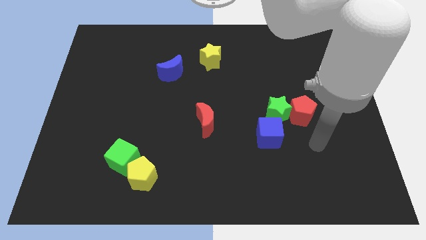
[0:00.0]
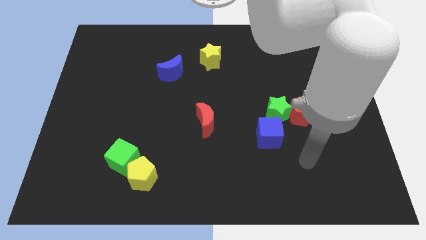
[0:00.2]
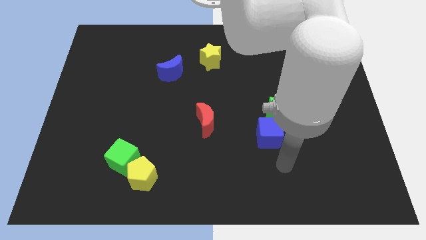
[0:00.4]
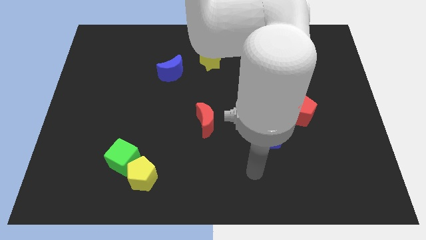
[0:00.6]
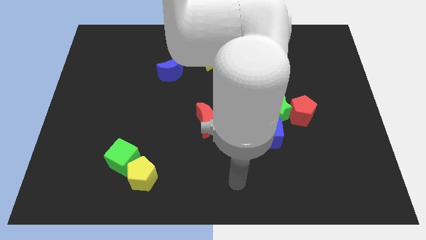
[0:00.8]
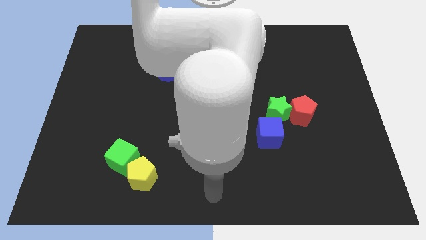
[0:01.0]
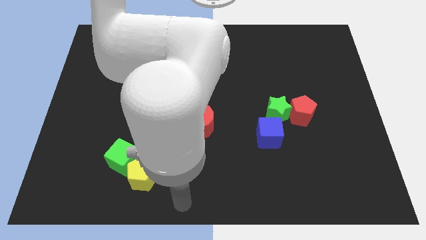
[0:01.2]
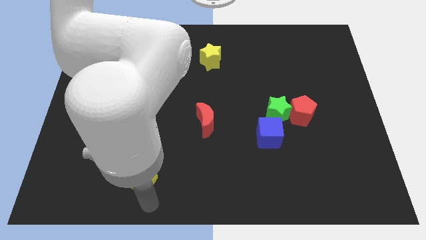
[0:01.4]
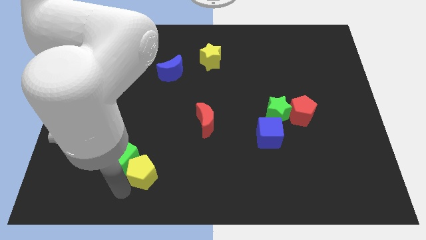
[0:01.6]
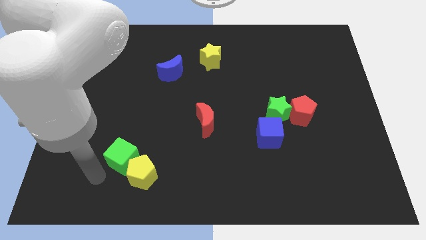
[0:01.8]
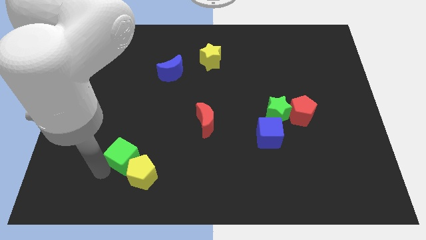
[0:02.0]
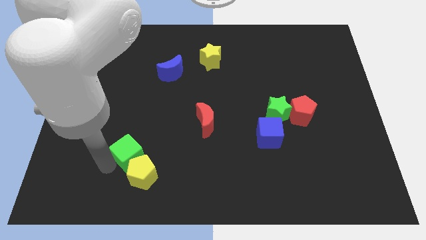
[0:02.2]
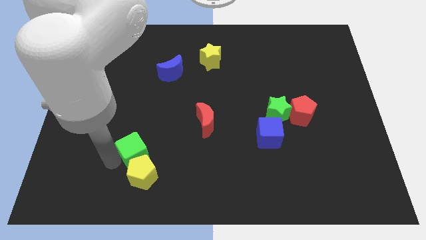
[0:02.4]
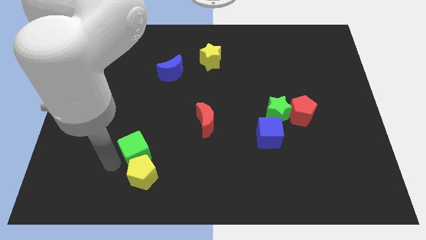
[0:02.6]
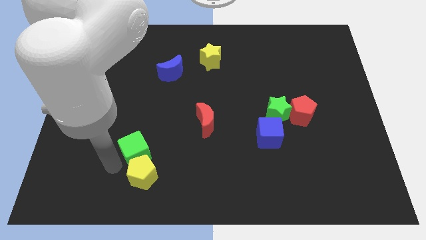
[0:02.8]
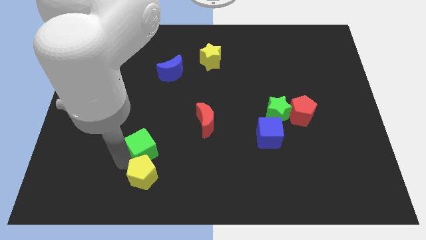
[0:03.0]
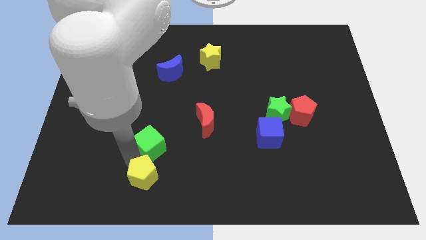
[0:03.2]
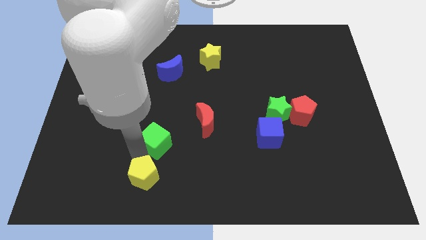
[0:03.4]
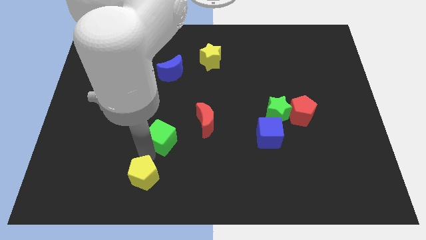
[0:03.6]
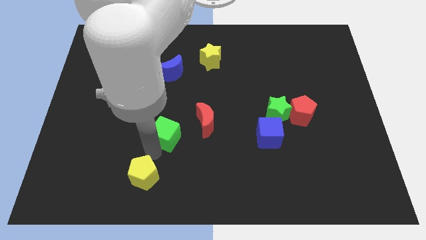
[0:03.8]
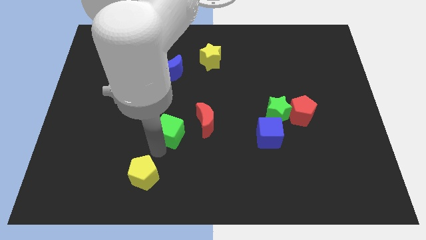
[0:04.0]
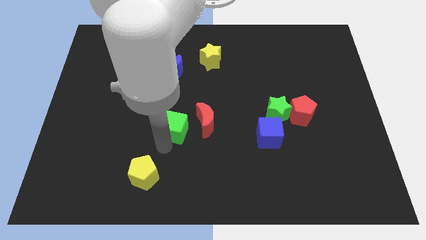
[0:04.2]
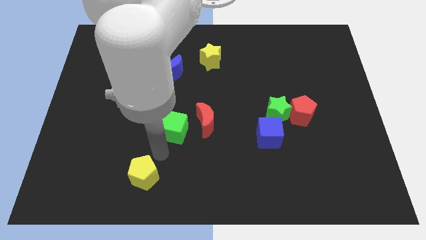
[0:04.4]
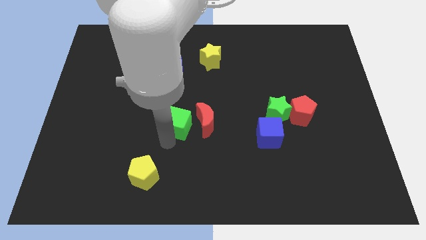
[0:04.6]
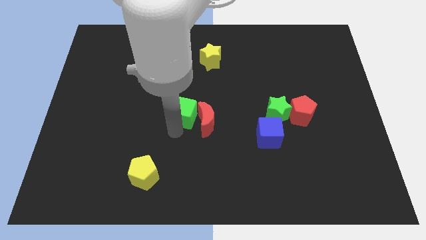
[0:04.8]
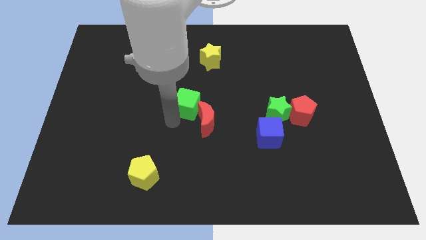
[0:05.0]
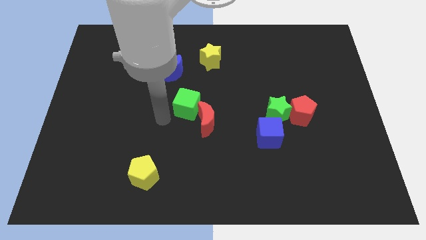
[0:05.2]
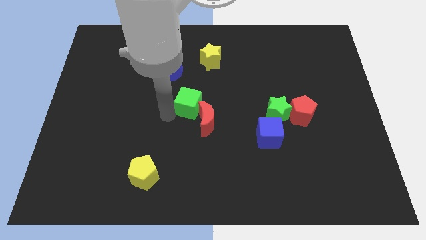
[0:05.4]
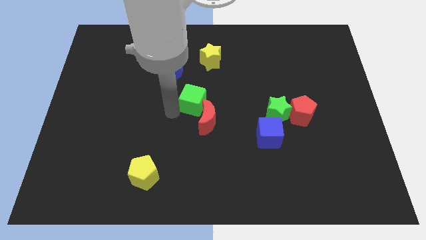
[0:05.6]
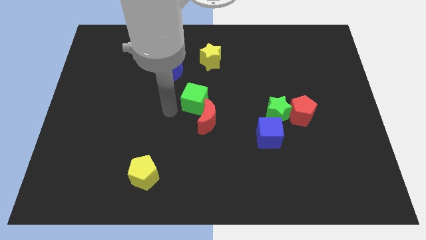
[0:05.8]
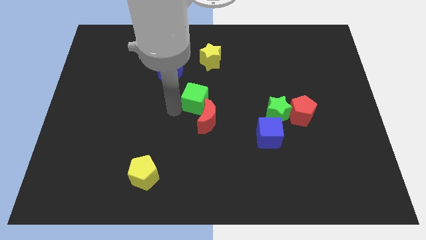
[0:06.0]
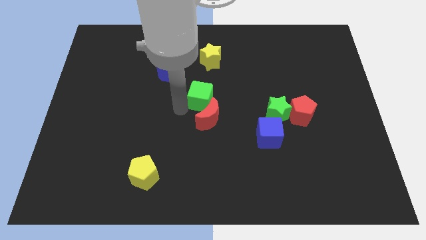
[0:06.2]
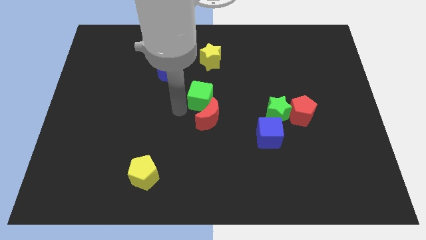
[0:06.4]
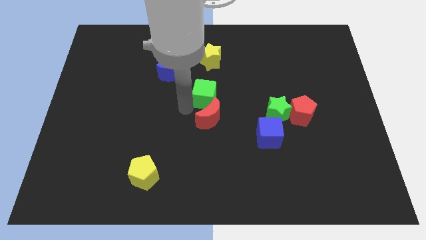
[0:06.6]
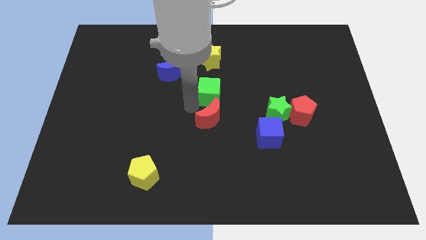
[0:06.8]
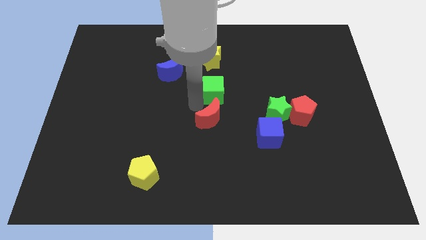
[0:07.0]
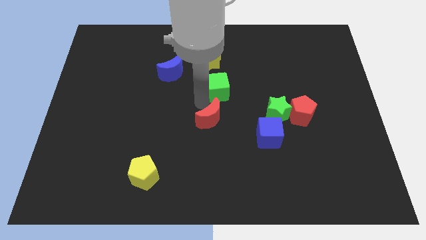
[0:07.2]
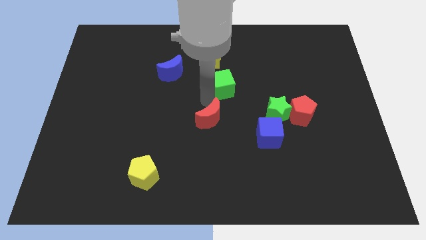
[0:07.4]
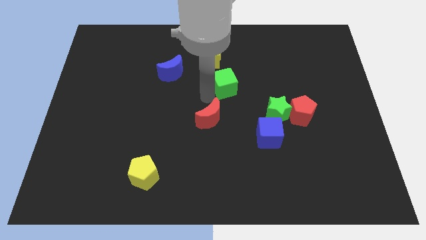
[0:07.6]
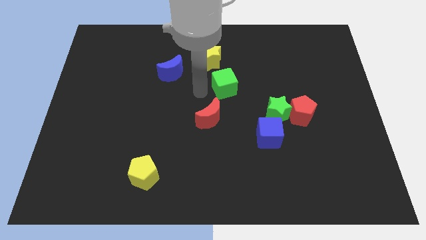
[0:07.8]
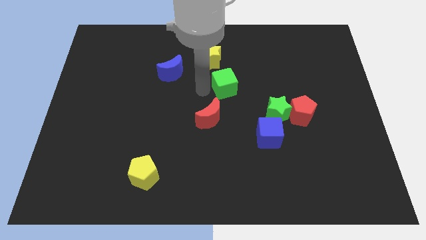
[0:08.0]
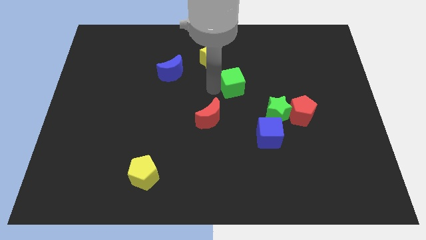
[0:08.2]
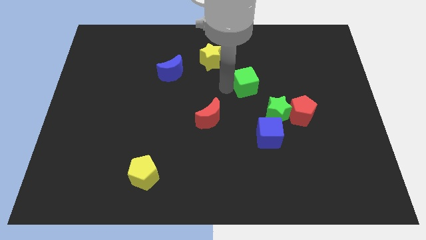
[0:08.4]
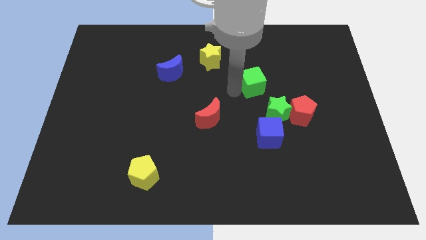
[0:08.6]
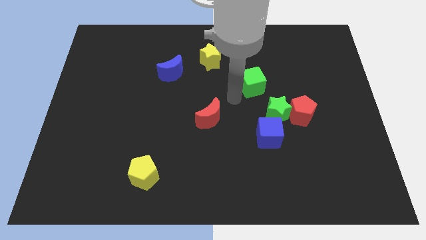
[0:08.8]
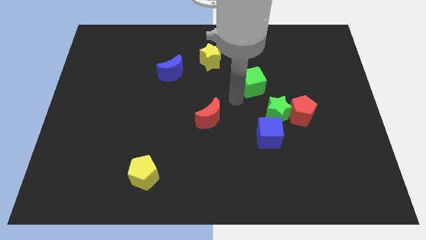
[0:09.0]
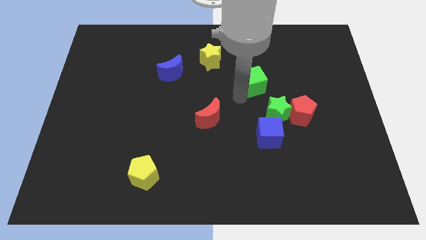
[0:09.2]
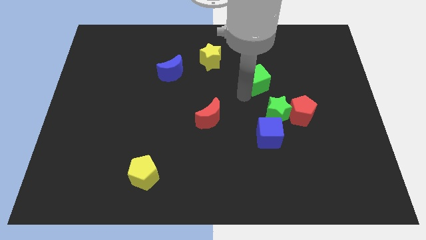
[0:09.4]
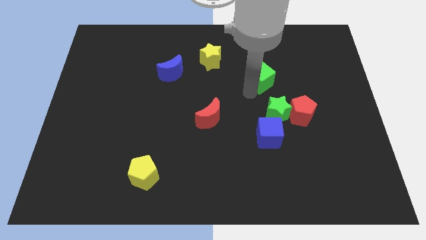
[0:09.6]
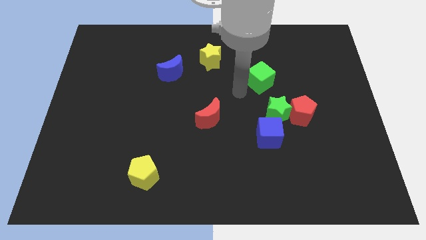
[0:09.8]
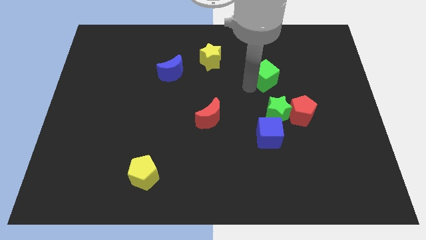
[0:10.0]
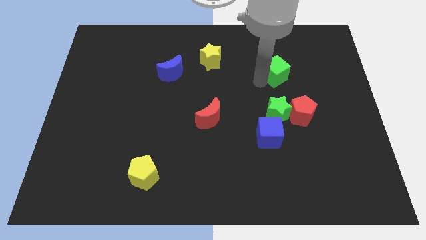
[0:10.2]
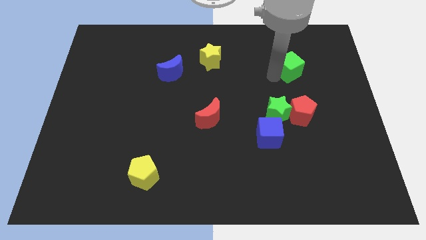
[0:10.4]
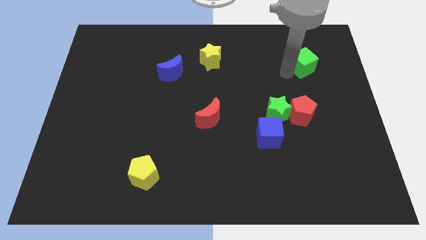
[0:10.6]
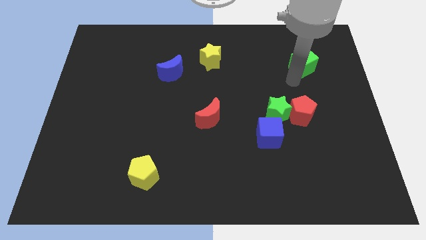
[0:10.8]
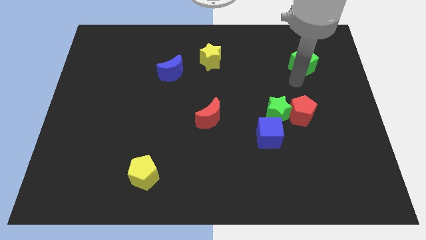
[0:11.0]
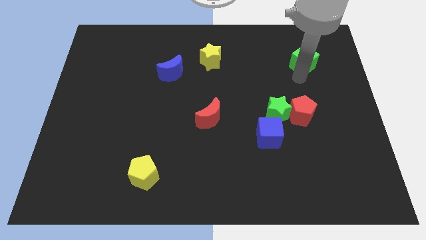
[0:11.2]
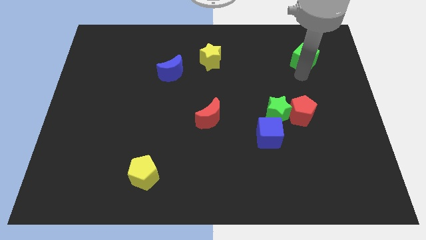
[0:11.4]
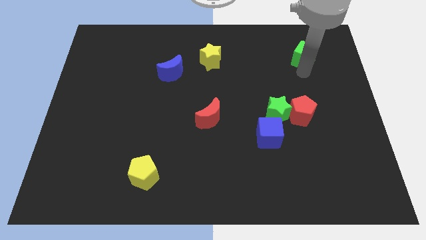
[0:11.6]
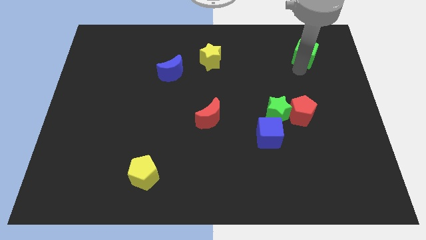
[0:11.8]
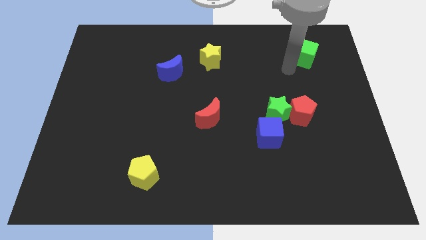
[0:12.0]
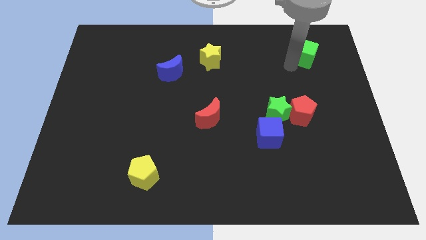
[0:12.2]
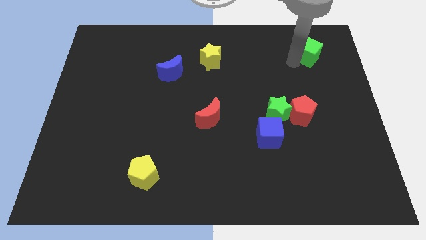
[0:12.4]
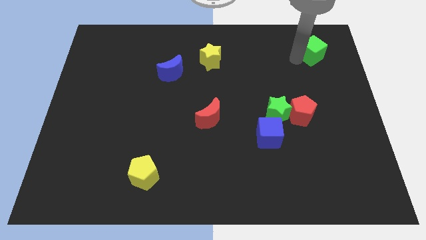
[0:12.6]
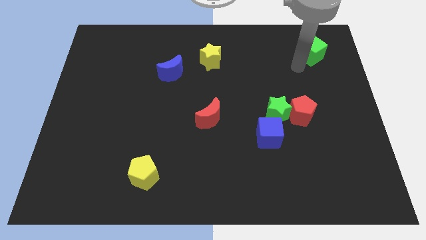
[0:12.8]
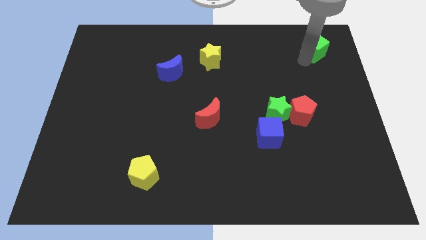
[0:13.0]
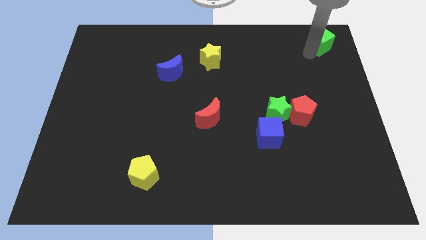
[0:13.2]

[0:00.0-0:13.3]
put the green cube to the top right of the board

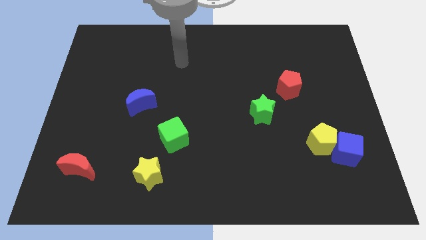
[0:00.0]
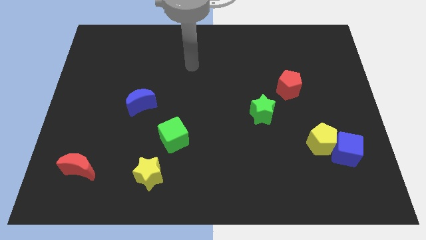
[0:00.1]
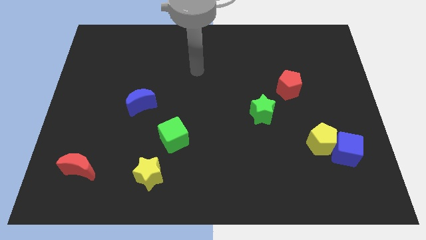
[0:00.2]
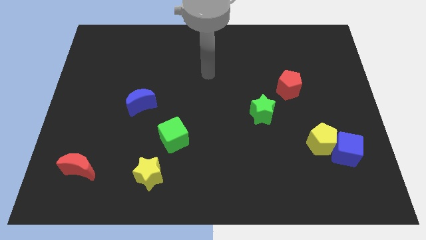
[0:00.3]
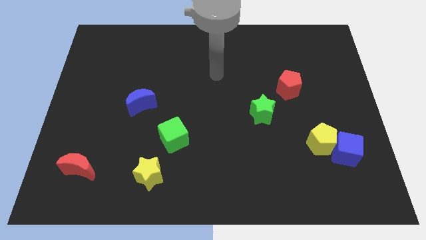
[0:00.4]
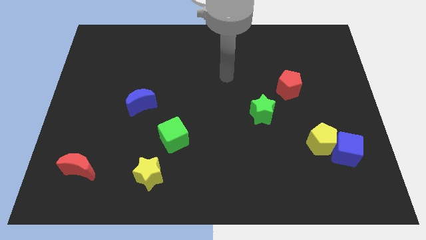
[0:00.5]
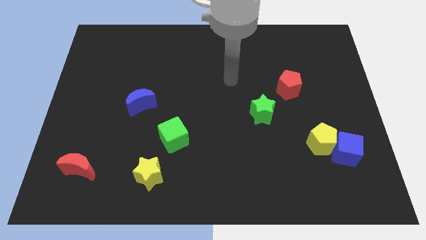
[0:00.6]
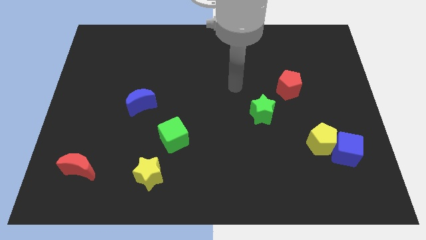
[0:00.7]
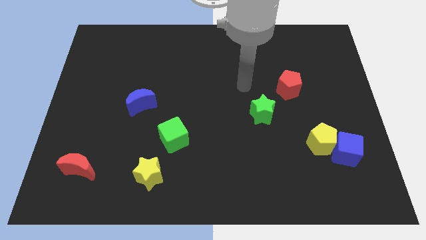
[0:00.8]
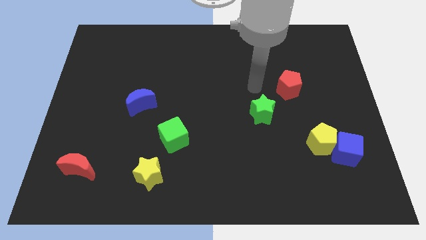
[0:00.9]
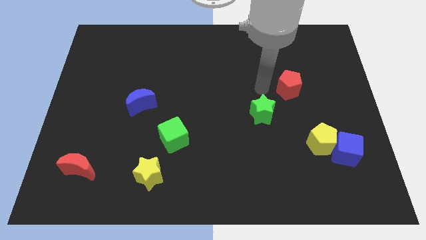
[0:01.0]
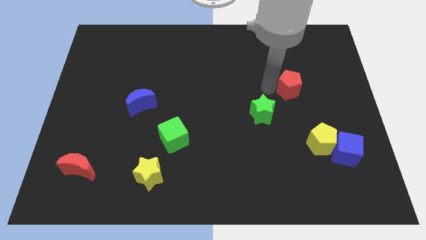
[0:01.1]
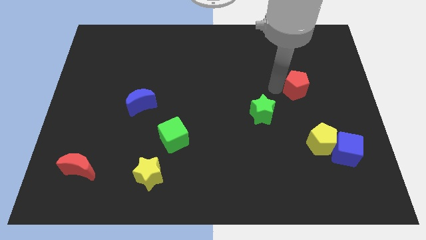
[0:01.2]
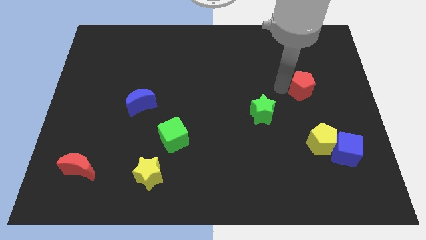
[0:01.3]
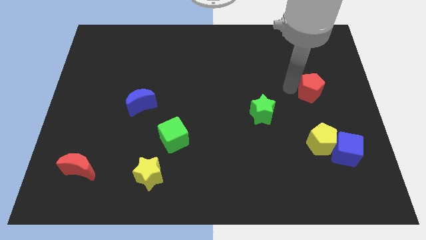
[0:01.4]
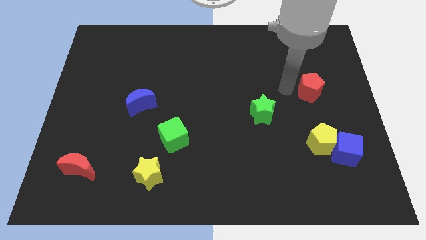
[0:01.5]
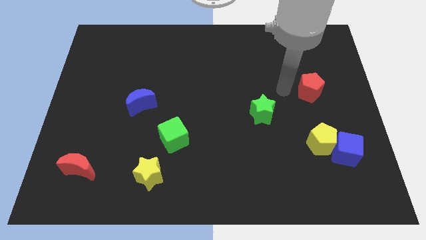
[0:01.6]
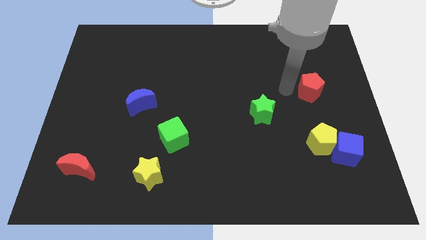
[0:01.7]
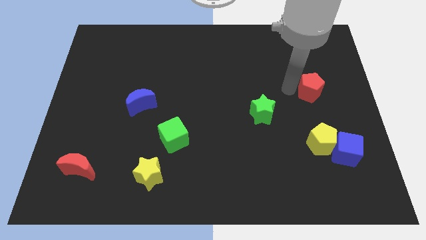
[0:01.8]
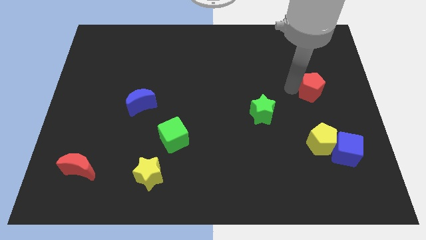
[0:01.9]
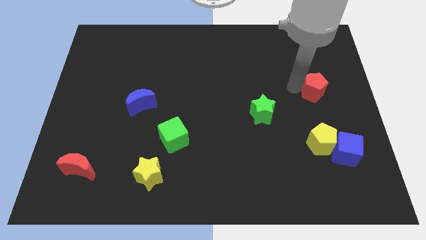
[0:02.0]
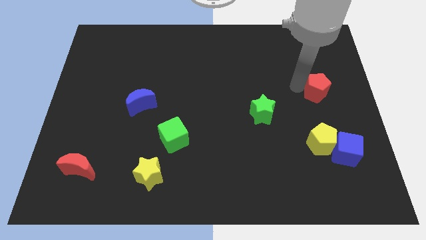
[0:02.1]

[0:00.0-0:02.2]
slide the red pentagon to the right side
